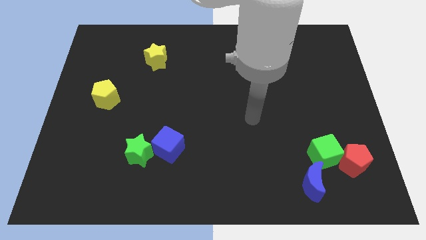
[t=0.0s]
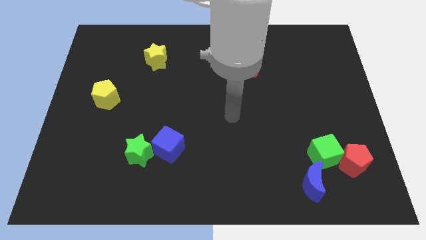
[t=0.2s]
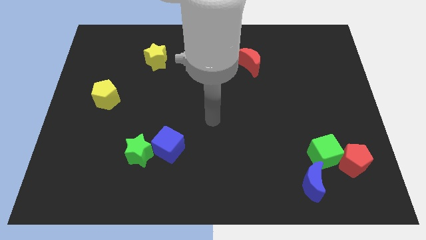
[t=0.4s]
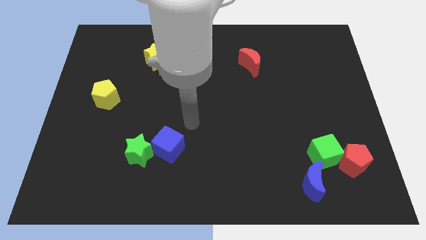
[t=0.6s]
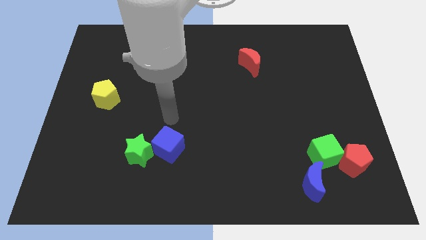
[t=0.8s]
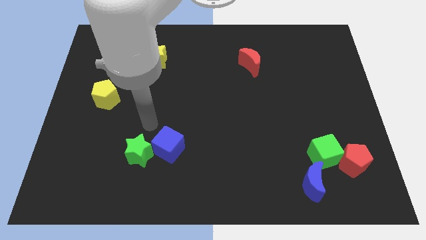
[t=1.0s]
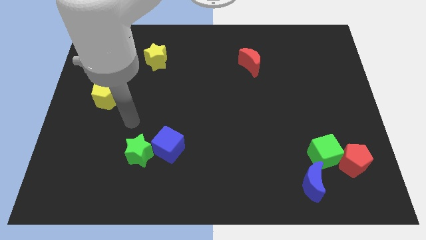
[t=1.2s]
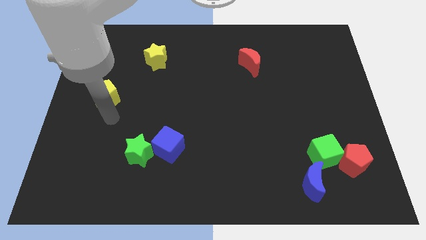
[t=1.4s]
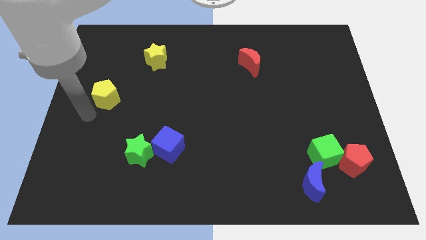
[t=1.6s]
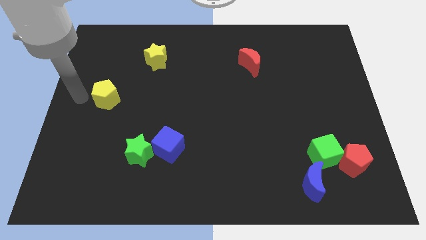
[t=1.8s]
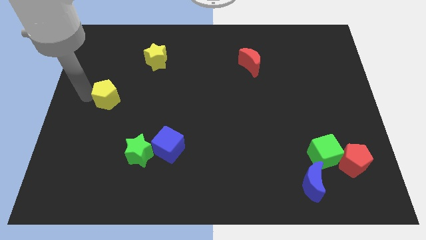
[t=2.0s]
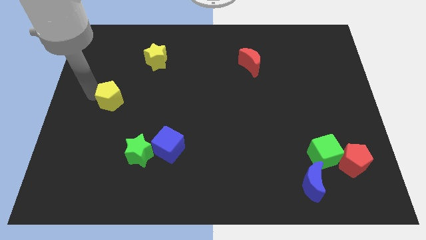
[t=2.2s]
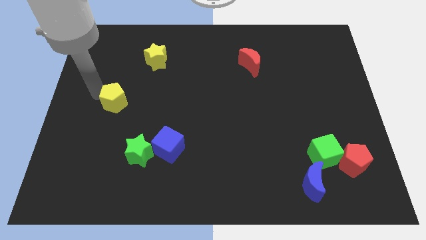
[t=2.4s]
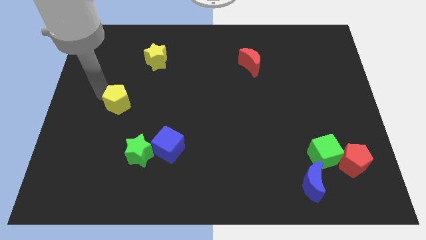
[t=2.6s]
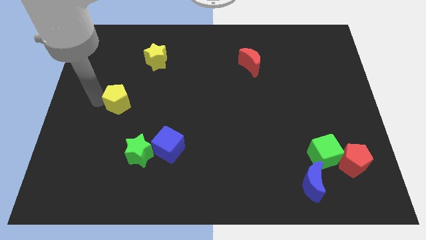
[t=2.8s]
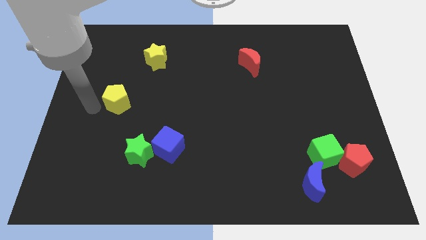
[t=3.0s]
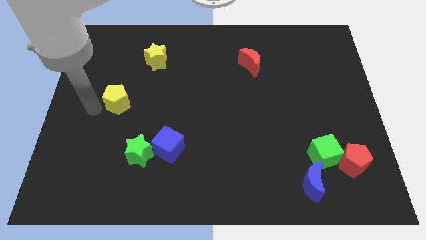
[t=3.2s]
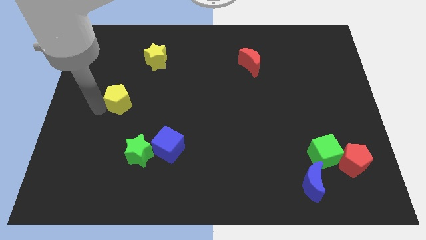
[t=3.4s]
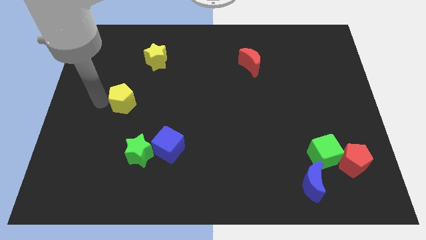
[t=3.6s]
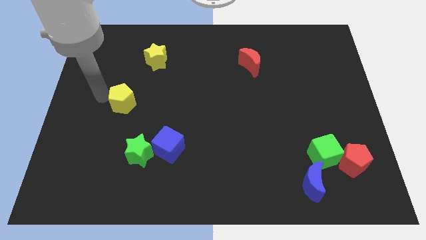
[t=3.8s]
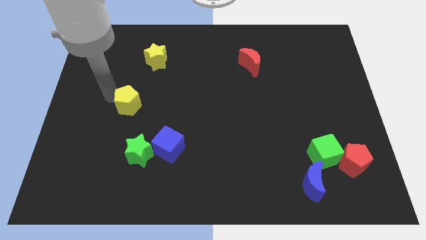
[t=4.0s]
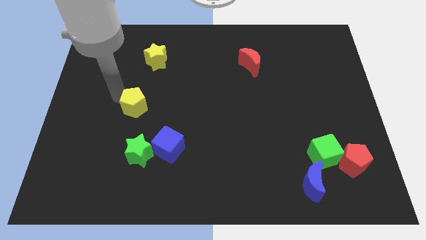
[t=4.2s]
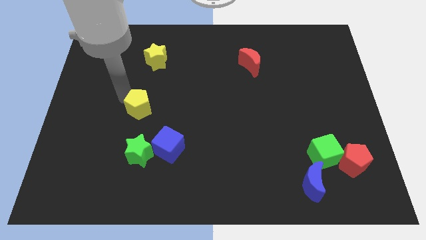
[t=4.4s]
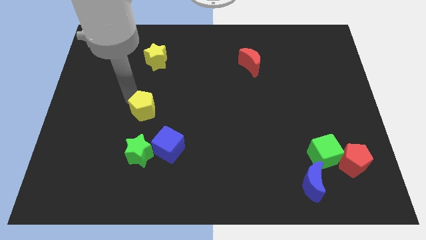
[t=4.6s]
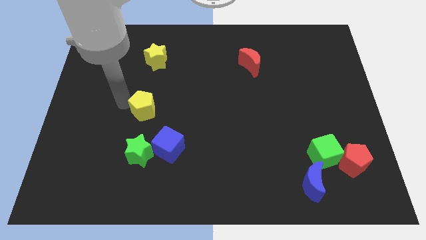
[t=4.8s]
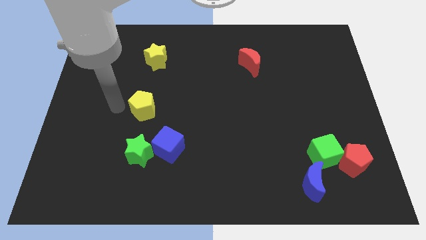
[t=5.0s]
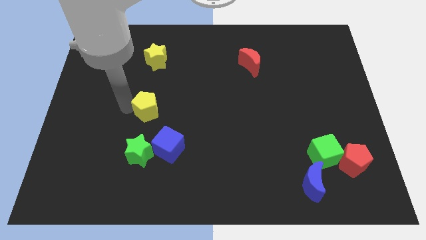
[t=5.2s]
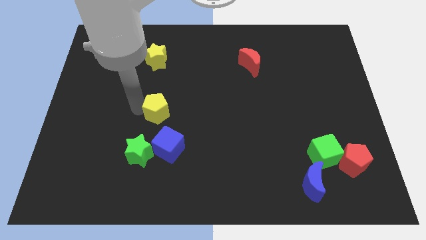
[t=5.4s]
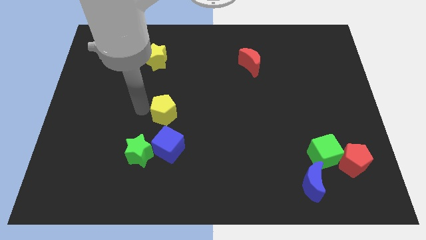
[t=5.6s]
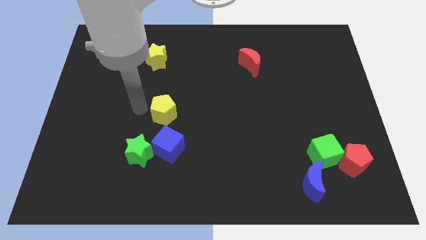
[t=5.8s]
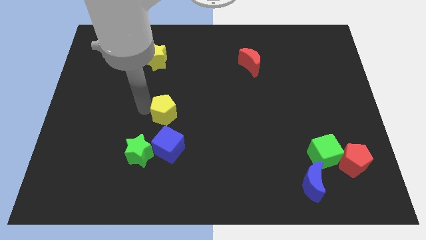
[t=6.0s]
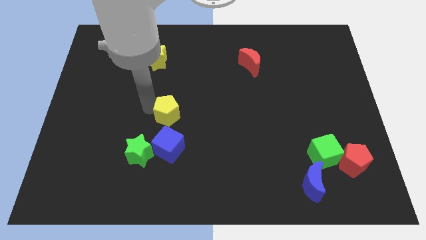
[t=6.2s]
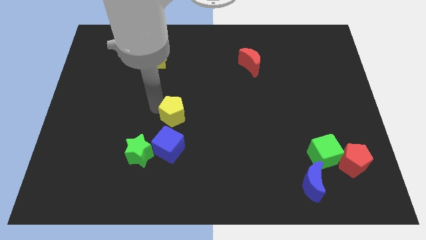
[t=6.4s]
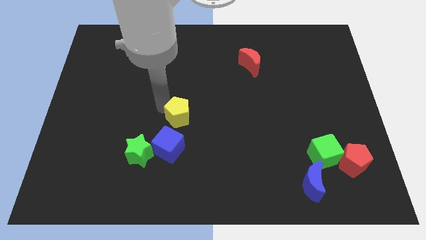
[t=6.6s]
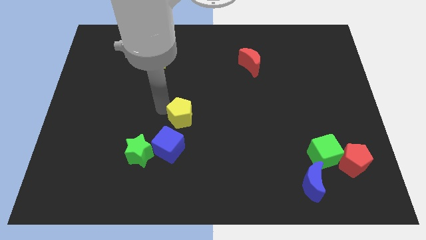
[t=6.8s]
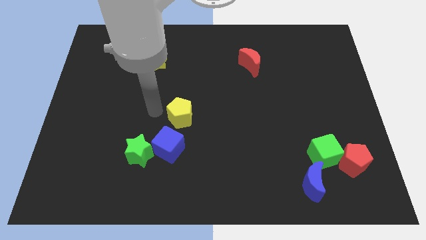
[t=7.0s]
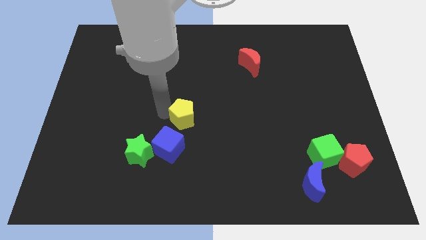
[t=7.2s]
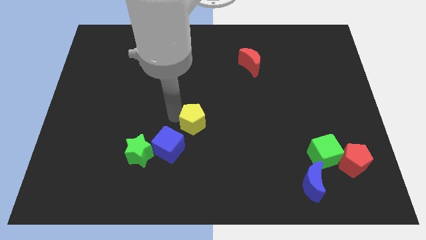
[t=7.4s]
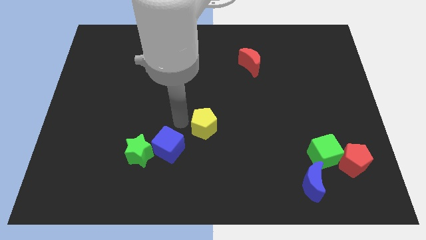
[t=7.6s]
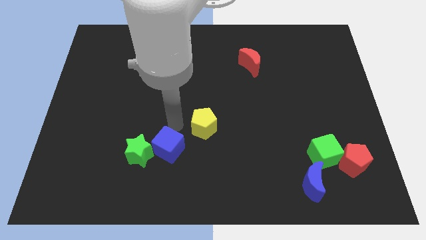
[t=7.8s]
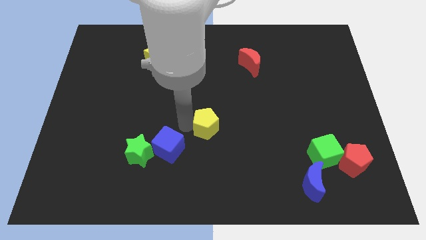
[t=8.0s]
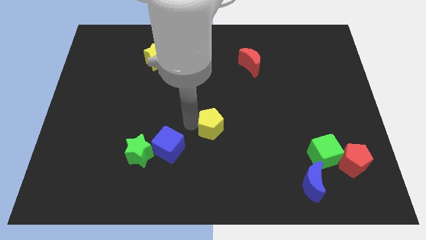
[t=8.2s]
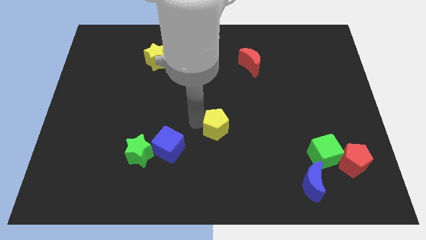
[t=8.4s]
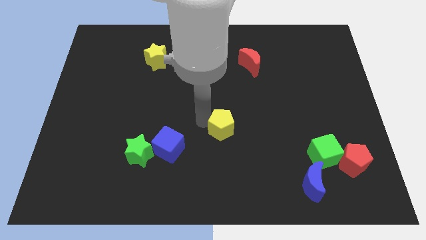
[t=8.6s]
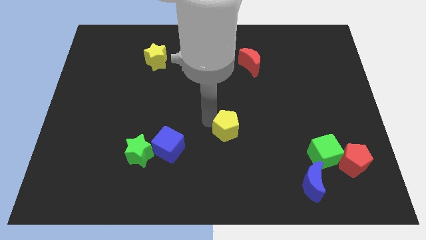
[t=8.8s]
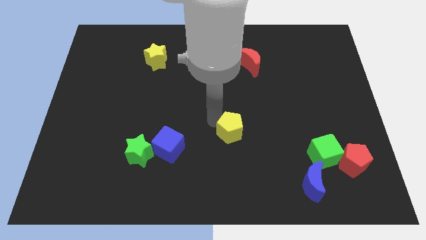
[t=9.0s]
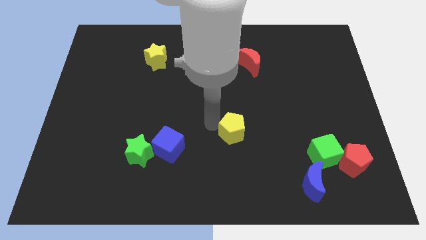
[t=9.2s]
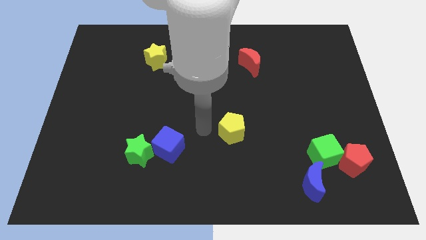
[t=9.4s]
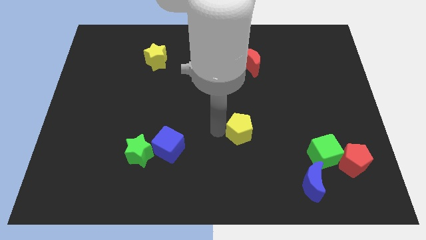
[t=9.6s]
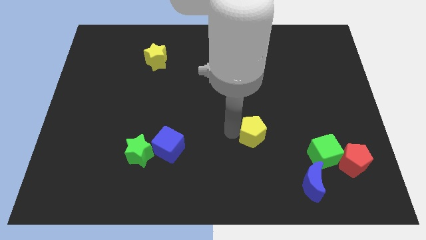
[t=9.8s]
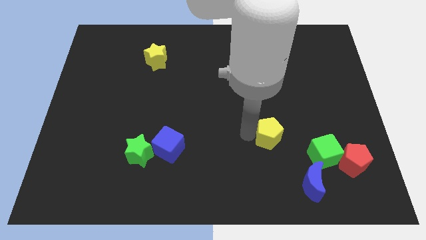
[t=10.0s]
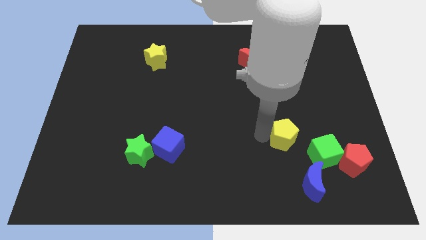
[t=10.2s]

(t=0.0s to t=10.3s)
slide the yellow pentagon to the top of the blue moon

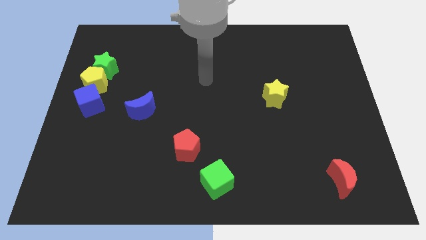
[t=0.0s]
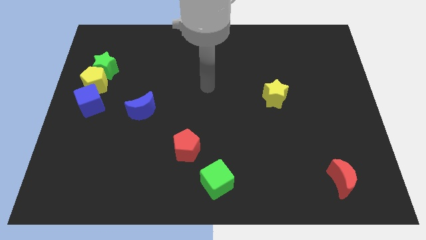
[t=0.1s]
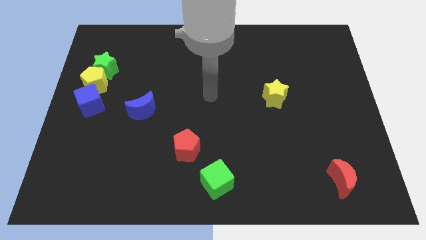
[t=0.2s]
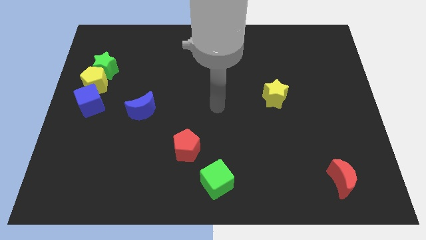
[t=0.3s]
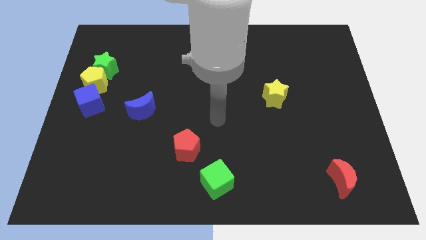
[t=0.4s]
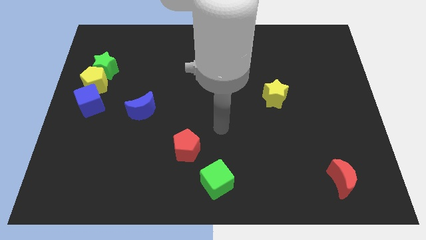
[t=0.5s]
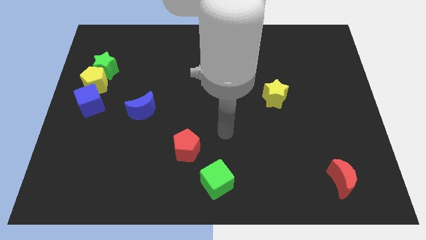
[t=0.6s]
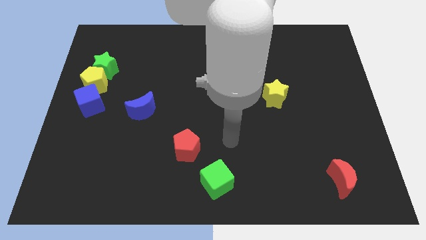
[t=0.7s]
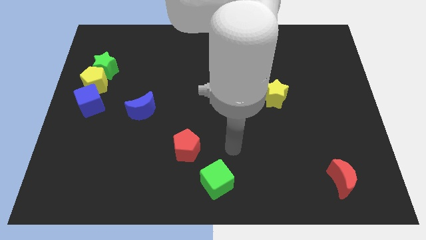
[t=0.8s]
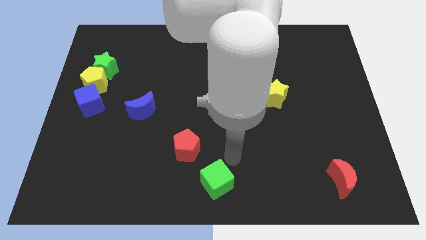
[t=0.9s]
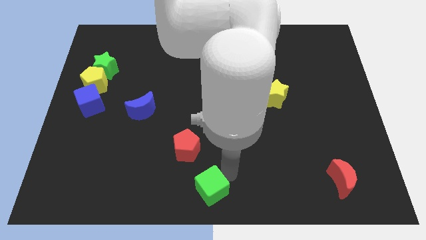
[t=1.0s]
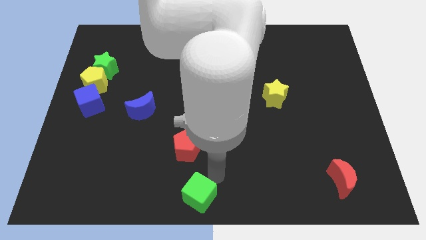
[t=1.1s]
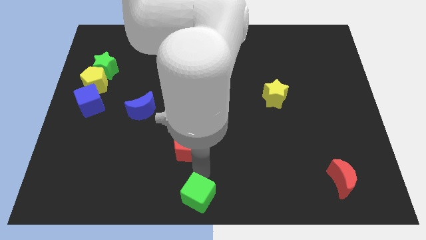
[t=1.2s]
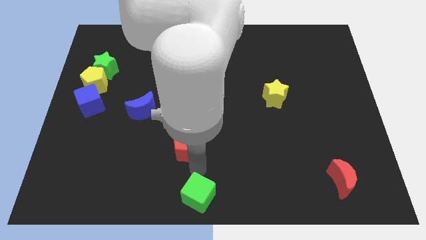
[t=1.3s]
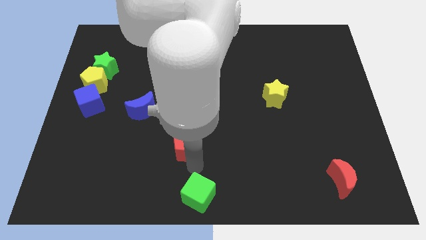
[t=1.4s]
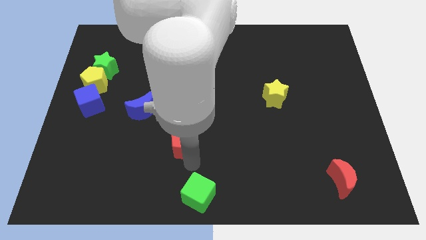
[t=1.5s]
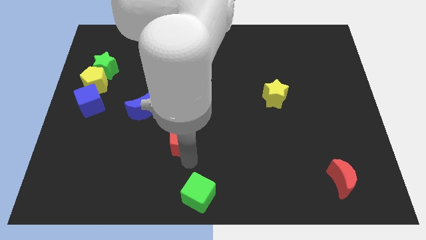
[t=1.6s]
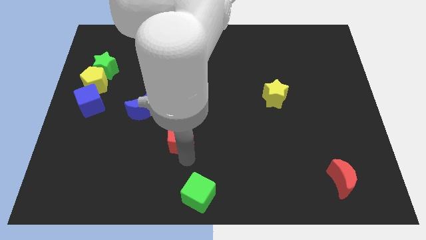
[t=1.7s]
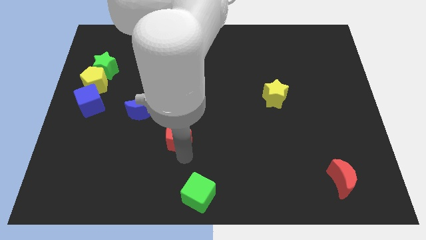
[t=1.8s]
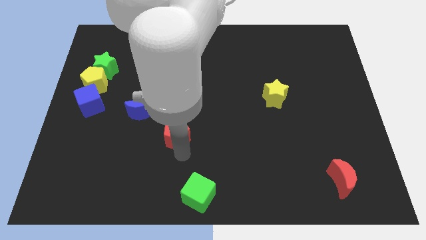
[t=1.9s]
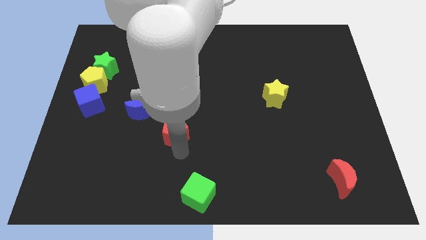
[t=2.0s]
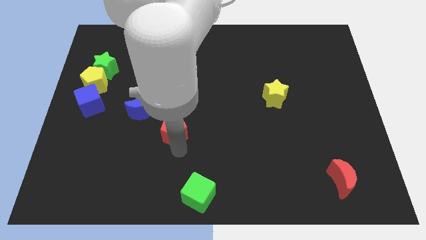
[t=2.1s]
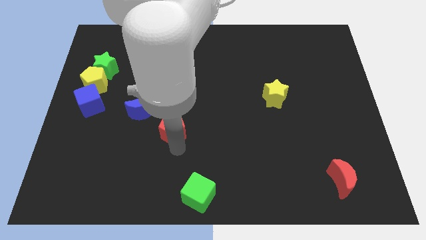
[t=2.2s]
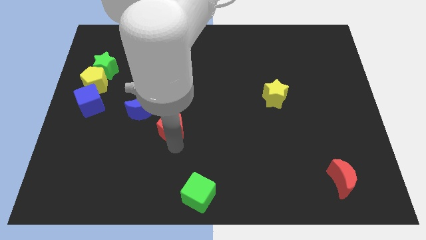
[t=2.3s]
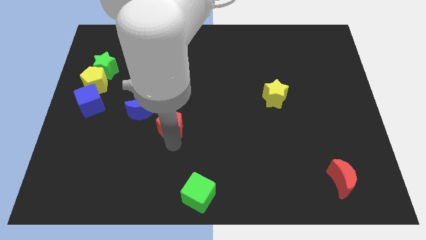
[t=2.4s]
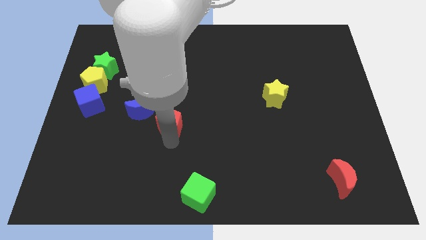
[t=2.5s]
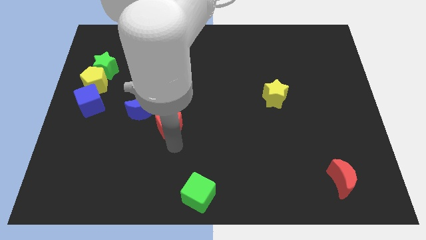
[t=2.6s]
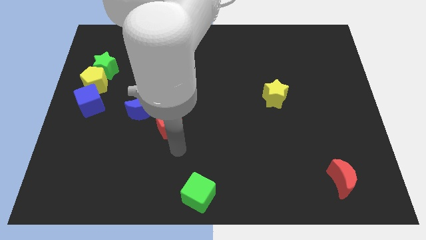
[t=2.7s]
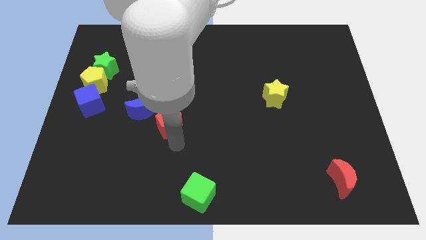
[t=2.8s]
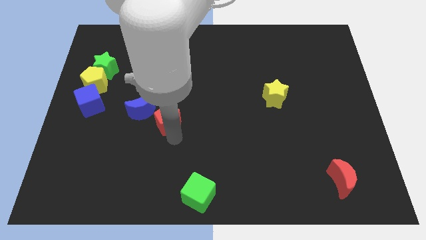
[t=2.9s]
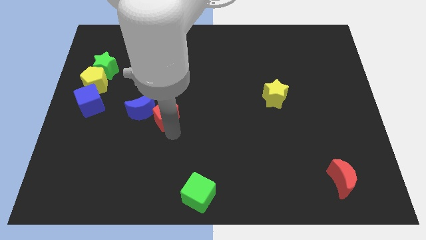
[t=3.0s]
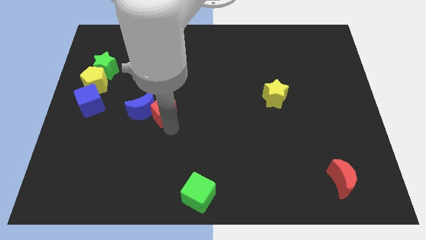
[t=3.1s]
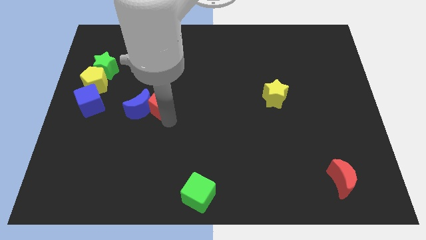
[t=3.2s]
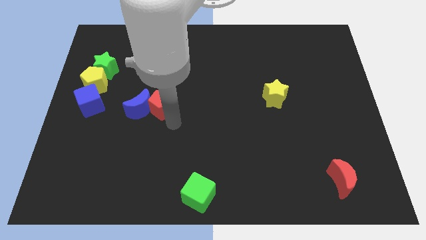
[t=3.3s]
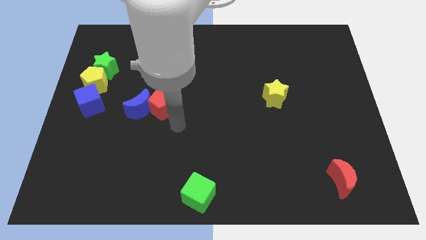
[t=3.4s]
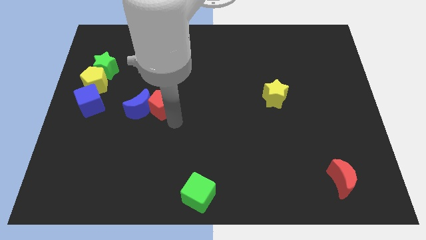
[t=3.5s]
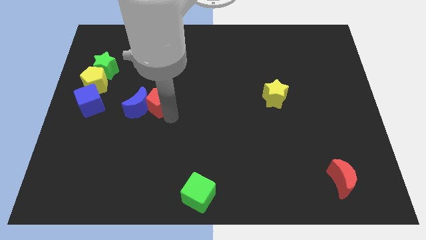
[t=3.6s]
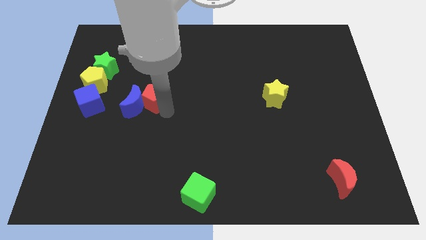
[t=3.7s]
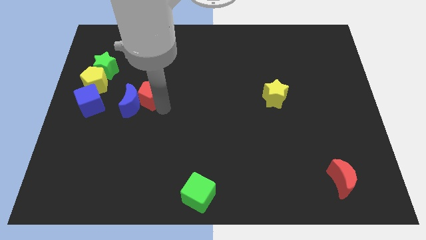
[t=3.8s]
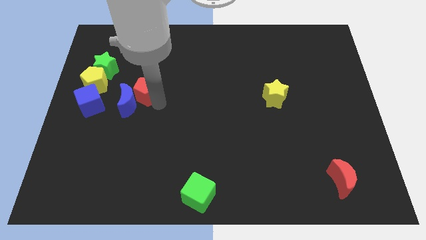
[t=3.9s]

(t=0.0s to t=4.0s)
move the red pentagon to the right of the yellow pentagon
